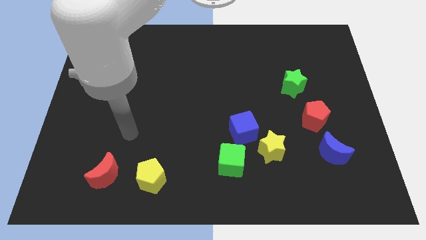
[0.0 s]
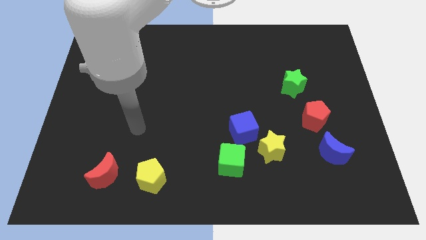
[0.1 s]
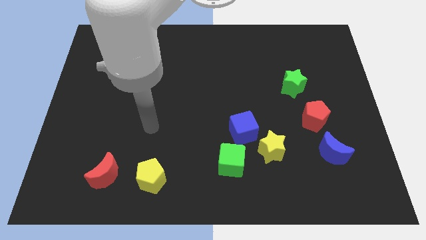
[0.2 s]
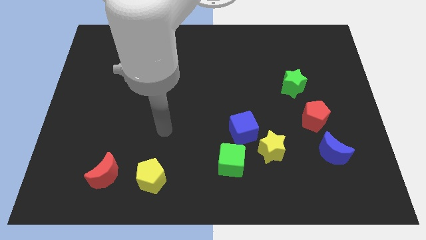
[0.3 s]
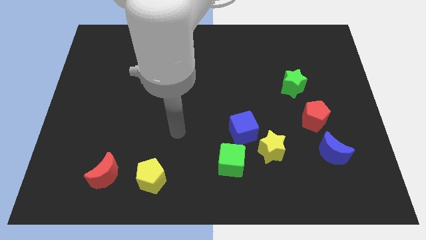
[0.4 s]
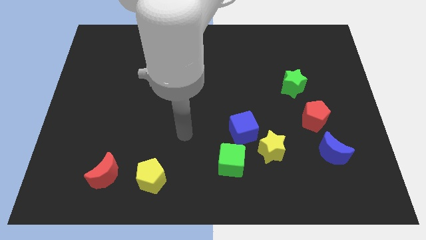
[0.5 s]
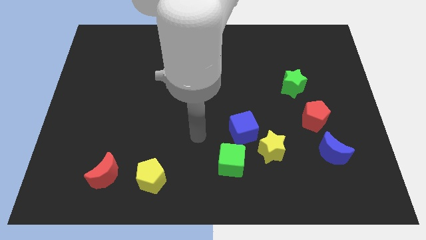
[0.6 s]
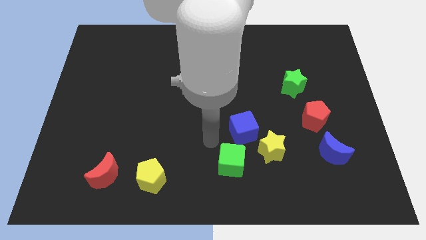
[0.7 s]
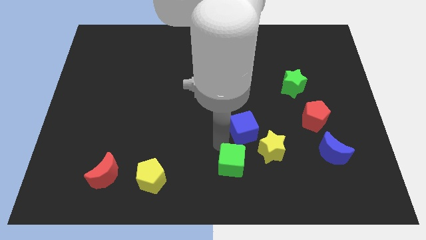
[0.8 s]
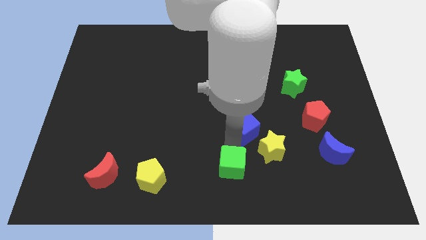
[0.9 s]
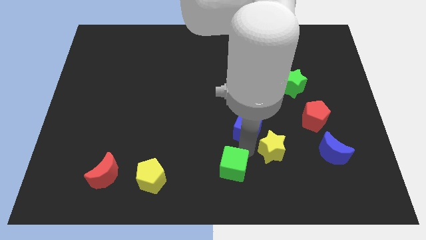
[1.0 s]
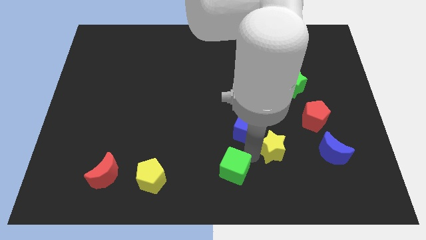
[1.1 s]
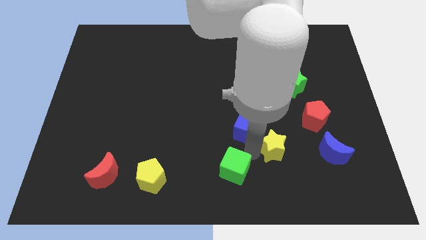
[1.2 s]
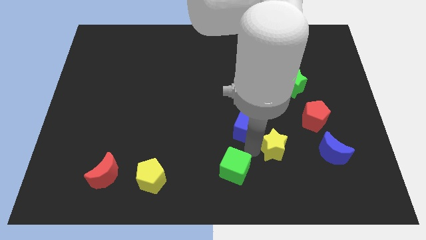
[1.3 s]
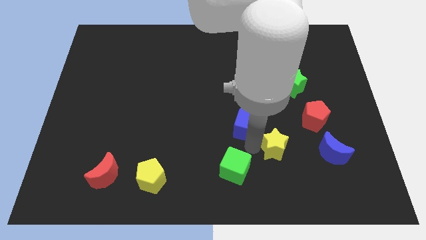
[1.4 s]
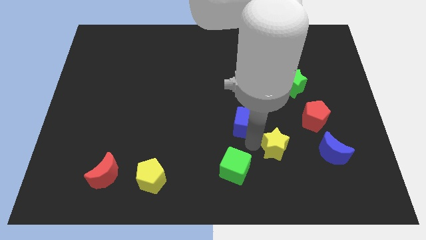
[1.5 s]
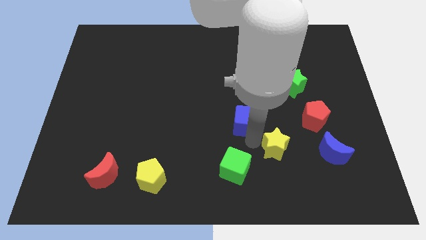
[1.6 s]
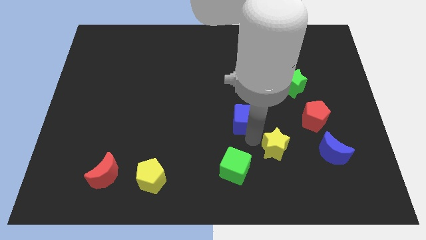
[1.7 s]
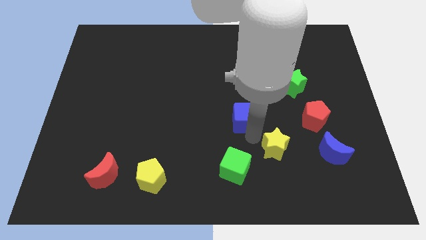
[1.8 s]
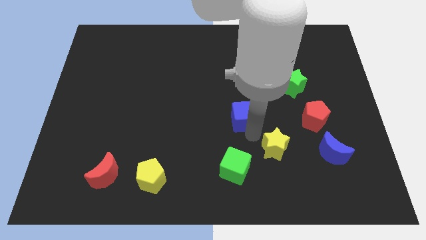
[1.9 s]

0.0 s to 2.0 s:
pull the blue cube apart from the yellow star and green cube

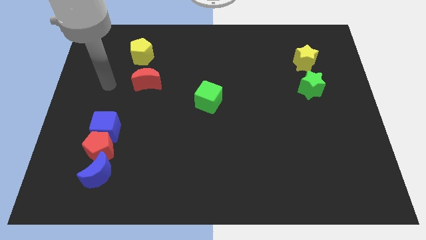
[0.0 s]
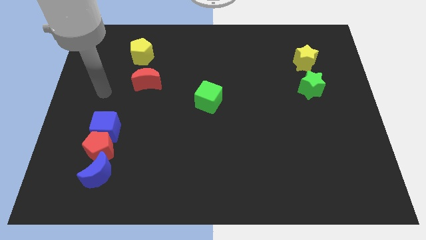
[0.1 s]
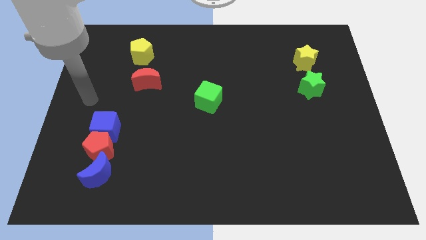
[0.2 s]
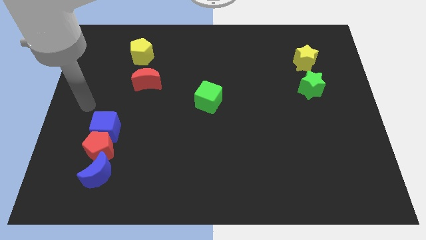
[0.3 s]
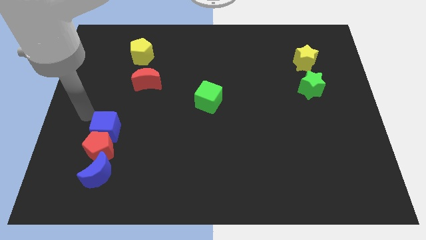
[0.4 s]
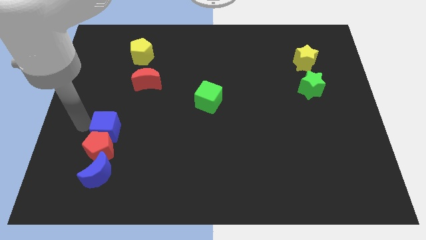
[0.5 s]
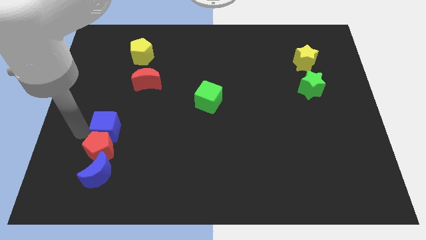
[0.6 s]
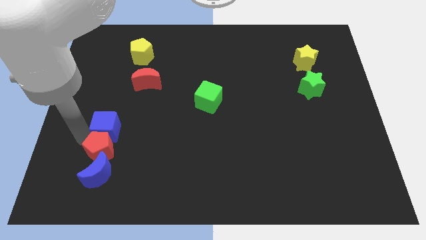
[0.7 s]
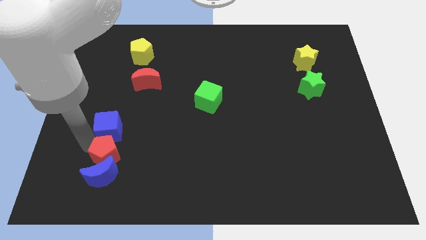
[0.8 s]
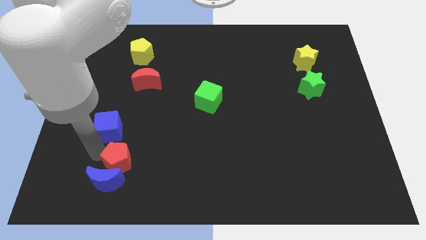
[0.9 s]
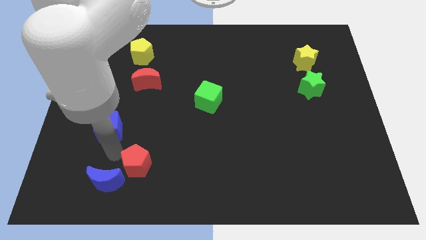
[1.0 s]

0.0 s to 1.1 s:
separate the blue cube from the red pentagon

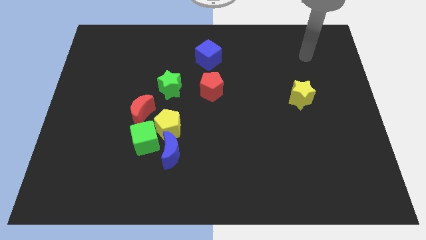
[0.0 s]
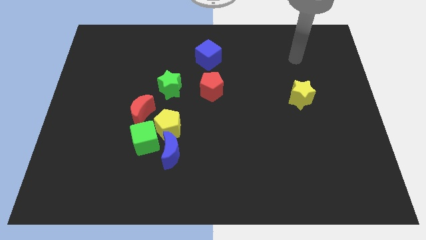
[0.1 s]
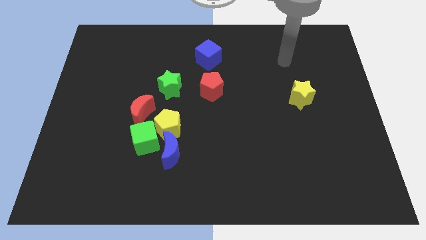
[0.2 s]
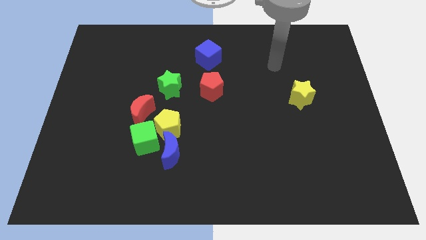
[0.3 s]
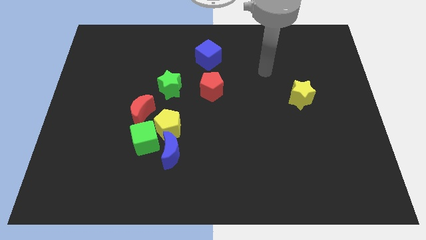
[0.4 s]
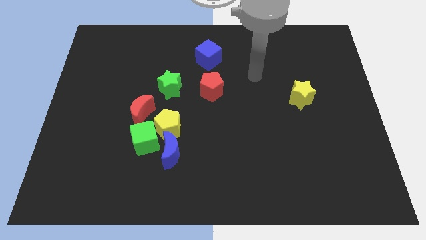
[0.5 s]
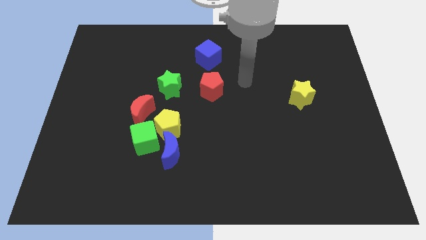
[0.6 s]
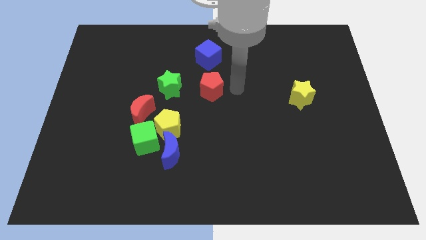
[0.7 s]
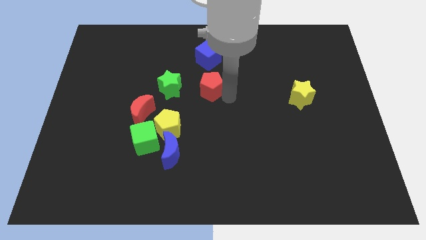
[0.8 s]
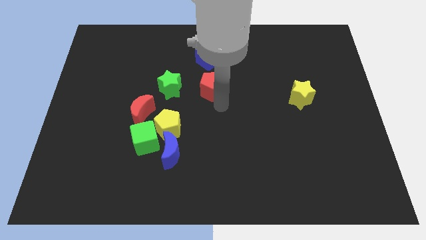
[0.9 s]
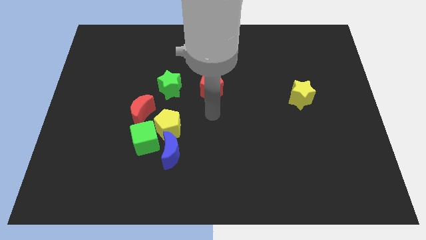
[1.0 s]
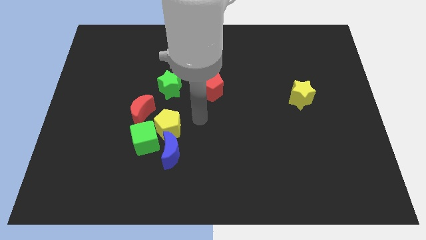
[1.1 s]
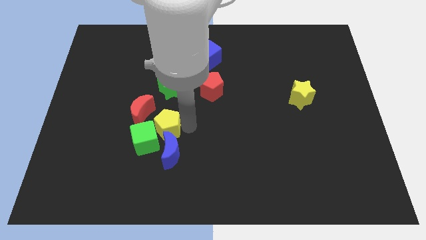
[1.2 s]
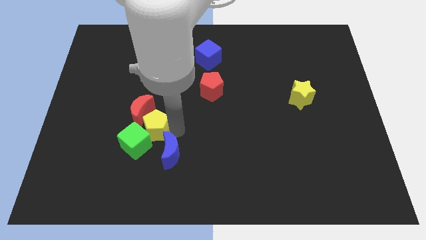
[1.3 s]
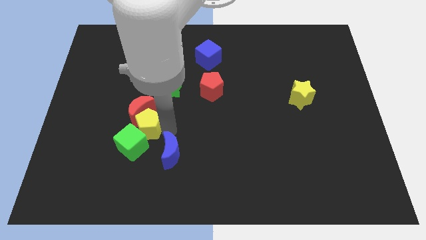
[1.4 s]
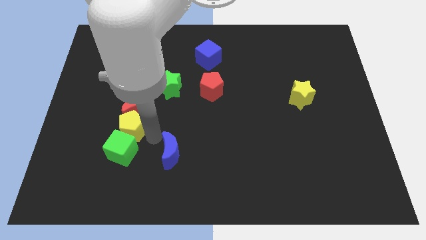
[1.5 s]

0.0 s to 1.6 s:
move the blue moon away from the yellow pentagon and green cube

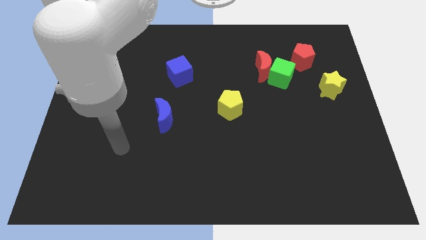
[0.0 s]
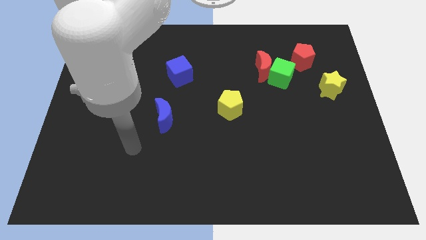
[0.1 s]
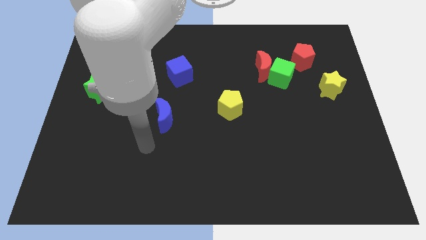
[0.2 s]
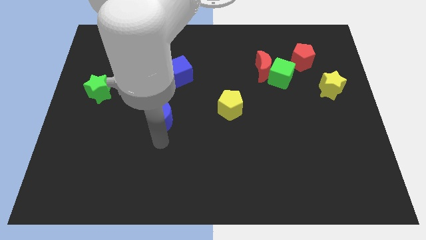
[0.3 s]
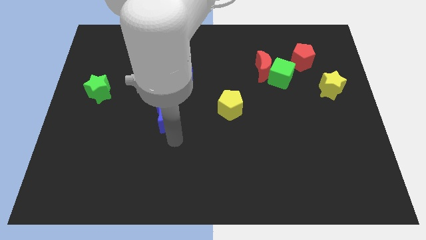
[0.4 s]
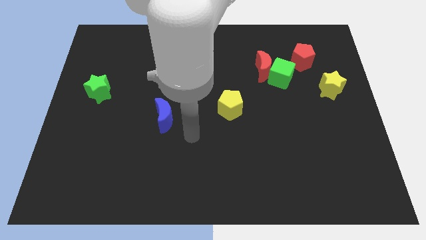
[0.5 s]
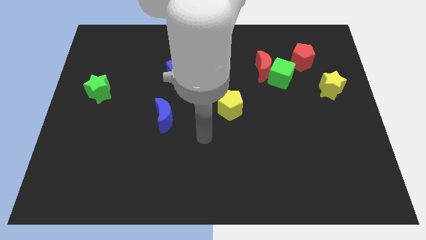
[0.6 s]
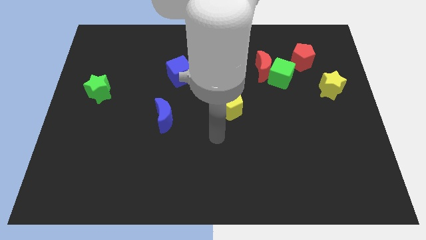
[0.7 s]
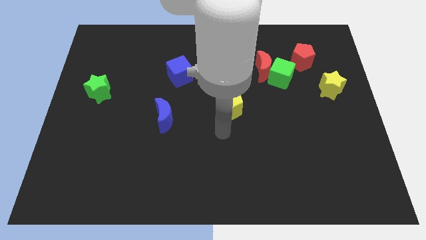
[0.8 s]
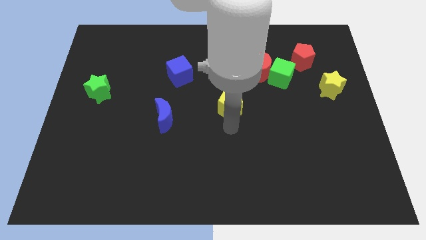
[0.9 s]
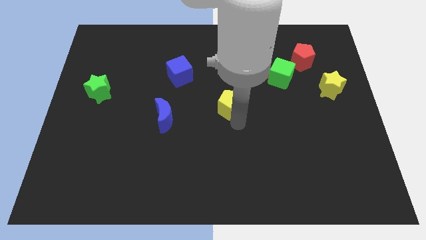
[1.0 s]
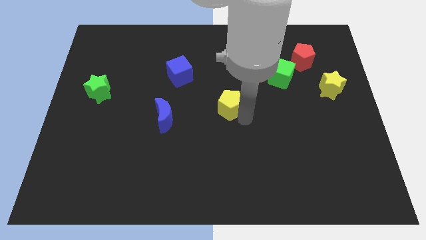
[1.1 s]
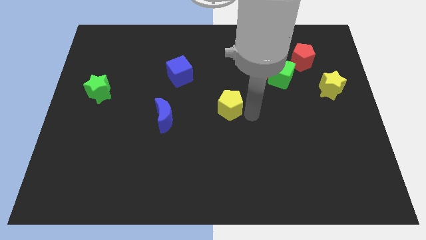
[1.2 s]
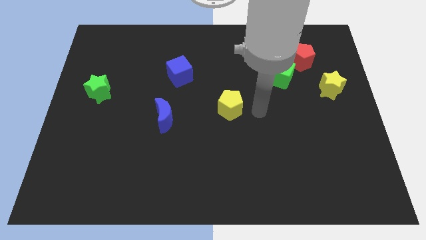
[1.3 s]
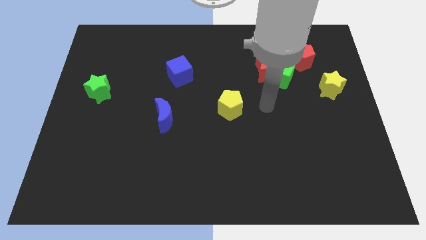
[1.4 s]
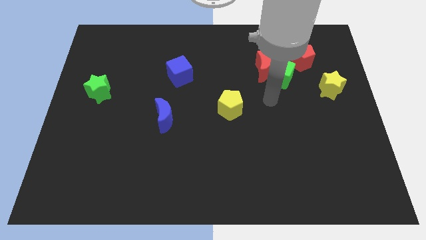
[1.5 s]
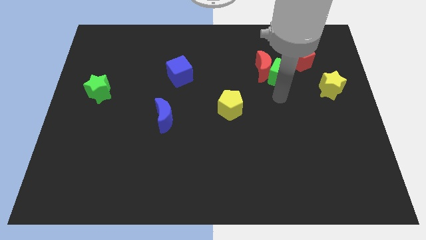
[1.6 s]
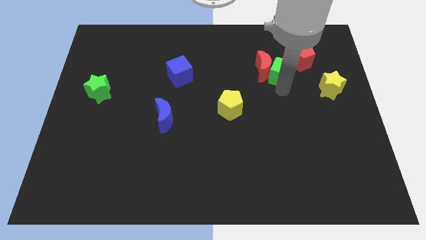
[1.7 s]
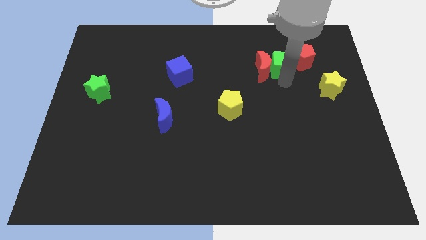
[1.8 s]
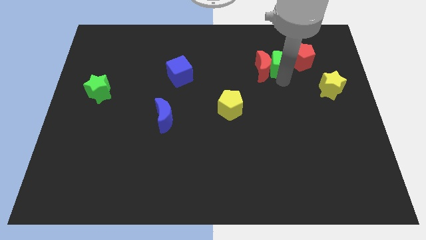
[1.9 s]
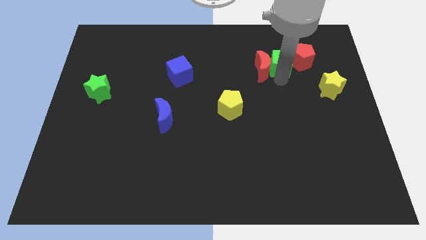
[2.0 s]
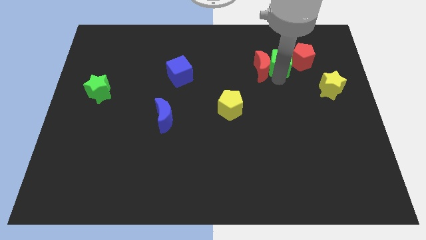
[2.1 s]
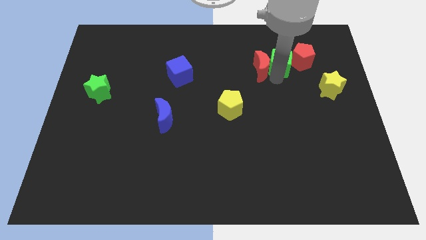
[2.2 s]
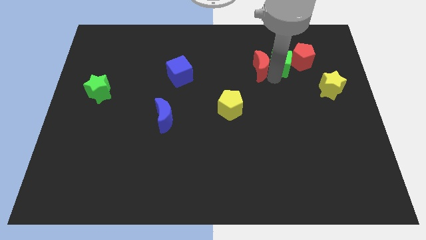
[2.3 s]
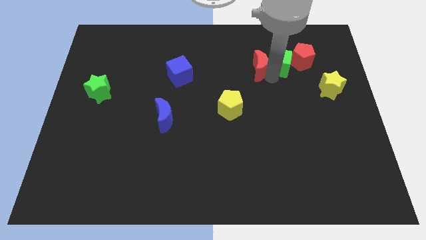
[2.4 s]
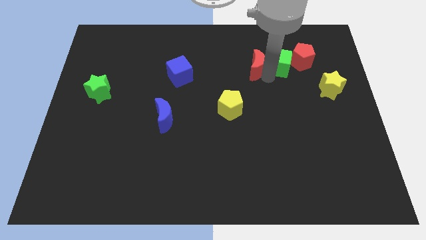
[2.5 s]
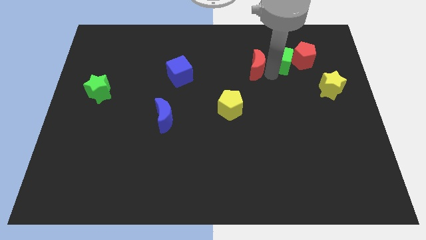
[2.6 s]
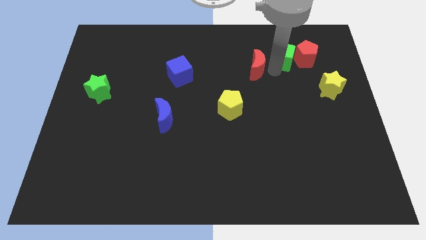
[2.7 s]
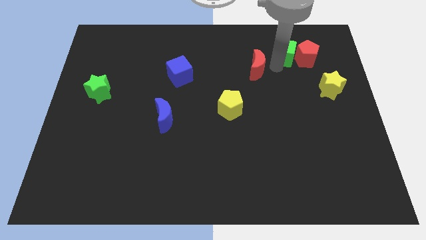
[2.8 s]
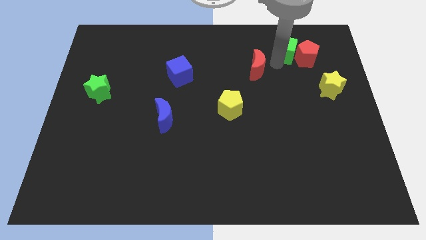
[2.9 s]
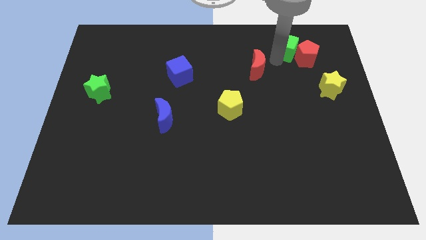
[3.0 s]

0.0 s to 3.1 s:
move the red moon away from the green cube

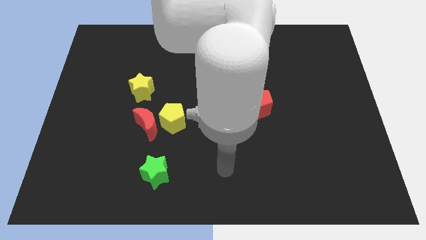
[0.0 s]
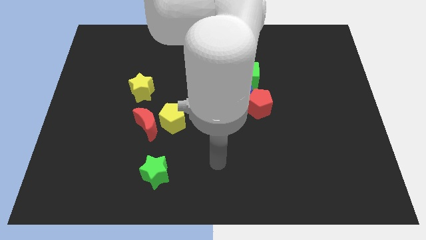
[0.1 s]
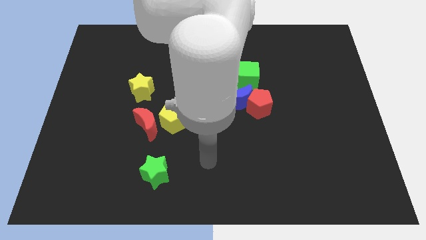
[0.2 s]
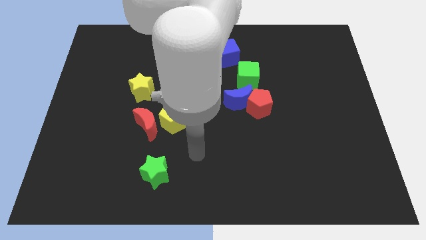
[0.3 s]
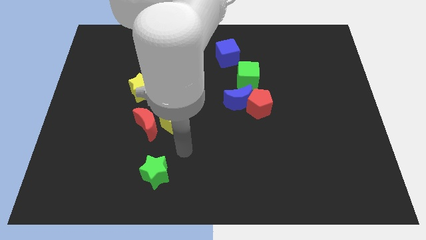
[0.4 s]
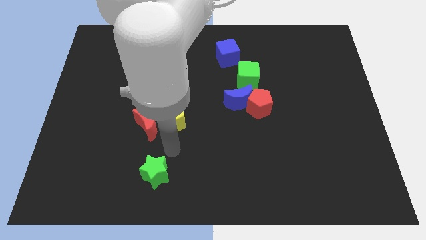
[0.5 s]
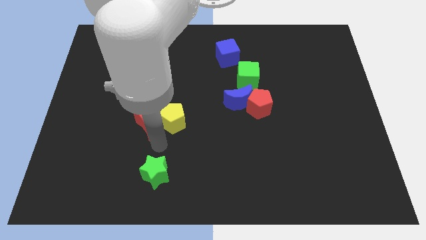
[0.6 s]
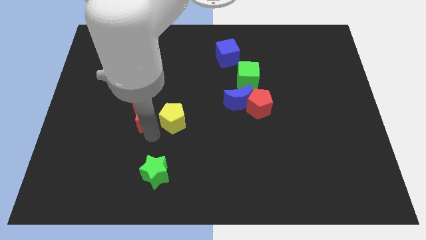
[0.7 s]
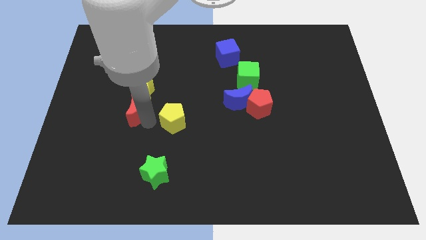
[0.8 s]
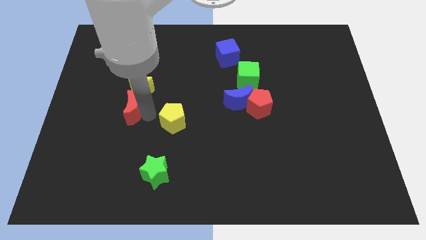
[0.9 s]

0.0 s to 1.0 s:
pull the yellow pentagon apart from the red moon

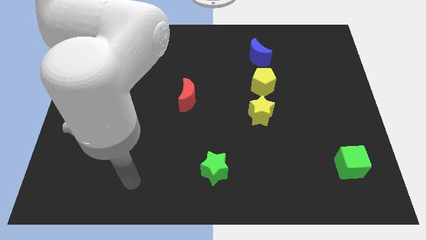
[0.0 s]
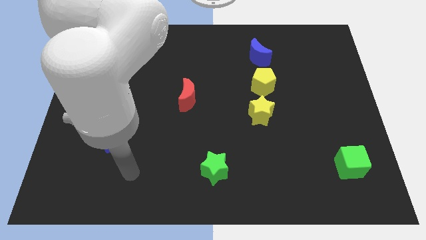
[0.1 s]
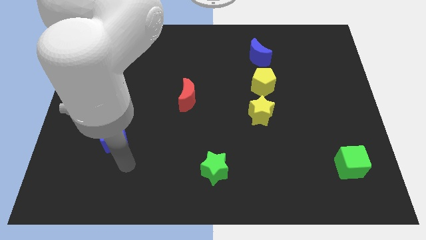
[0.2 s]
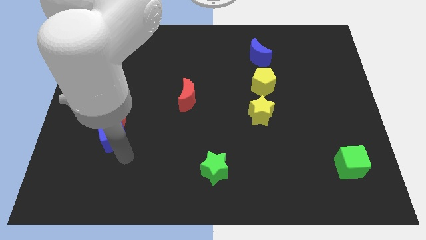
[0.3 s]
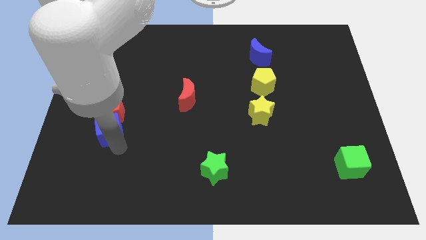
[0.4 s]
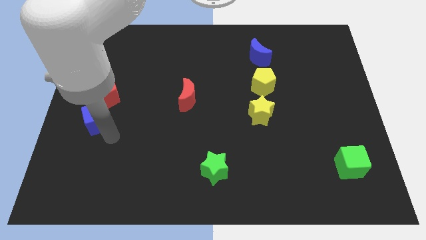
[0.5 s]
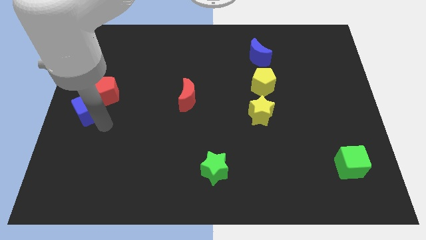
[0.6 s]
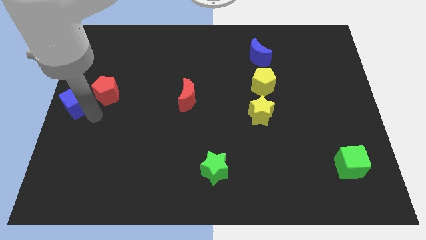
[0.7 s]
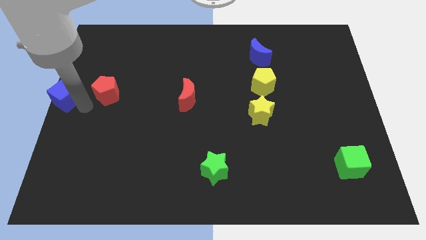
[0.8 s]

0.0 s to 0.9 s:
move the red pentagon away from the blue cube
